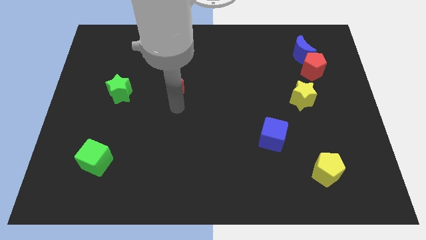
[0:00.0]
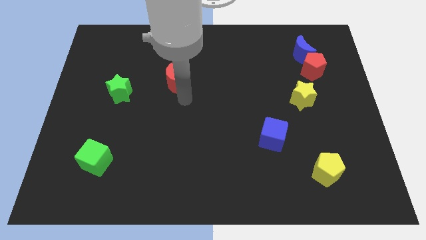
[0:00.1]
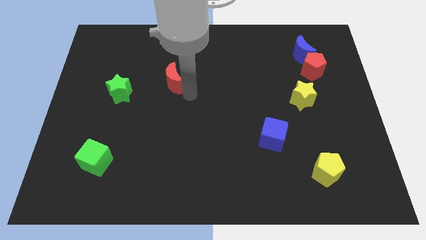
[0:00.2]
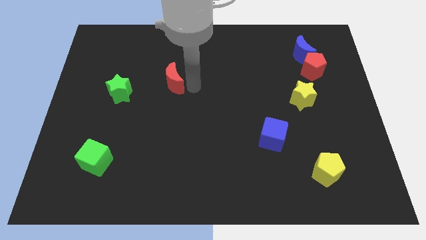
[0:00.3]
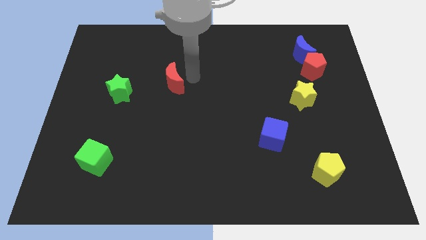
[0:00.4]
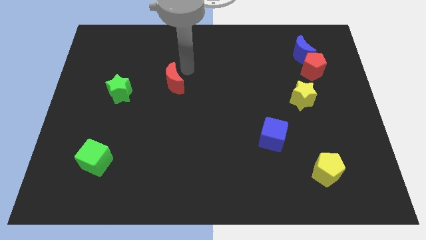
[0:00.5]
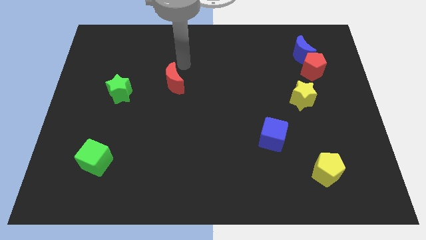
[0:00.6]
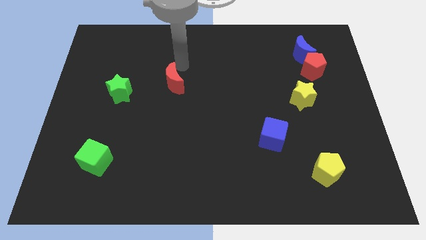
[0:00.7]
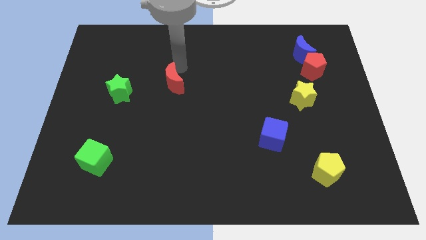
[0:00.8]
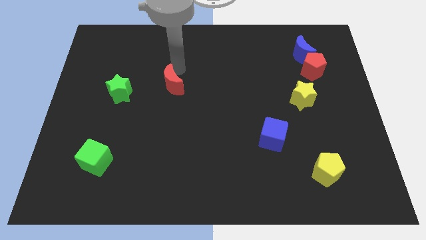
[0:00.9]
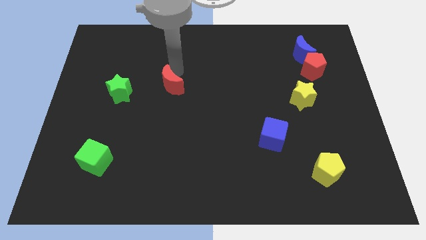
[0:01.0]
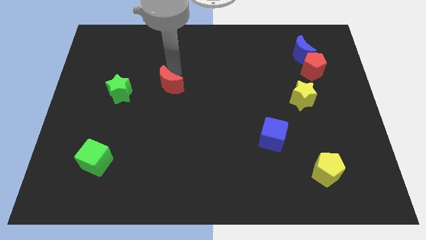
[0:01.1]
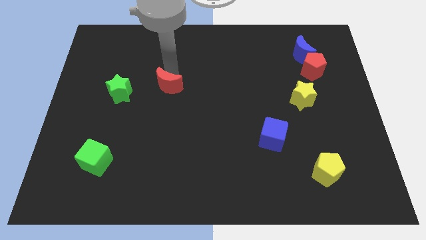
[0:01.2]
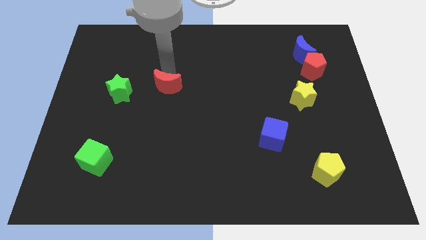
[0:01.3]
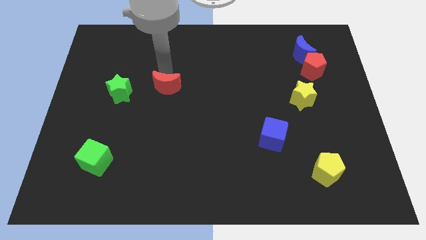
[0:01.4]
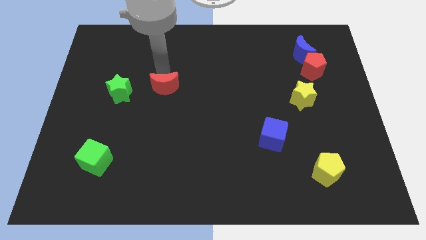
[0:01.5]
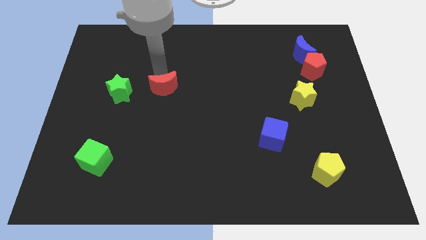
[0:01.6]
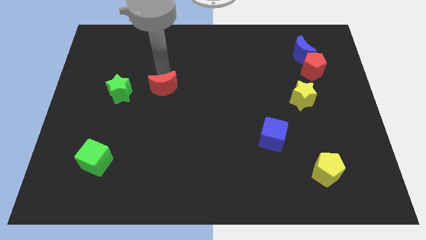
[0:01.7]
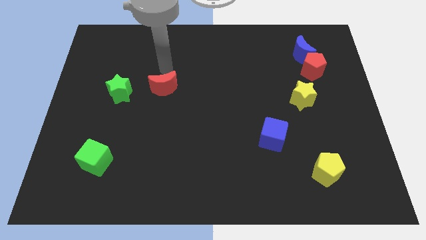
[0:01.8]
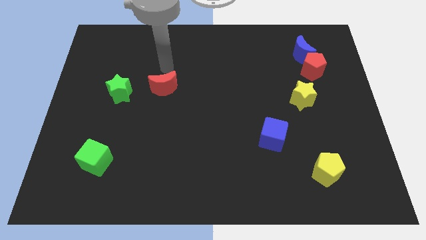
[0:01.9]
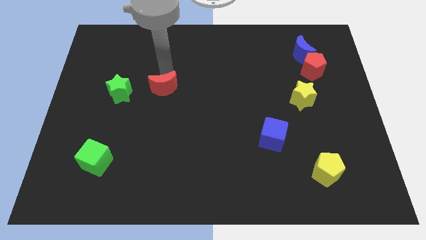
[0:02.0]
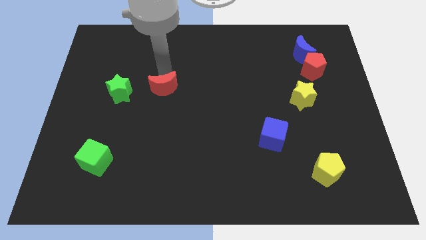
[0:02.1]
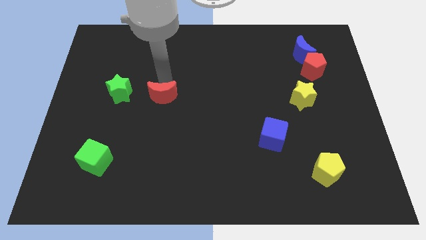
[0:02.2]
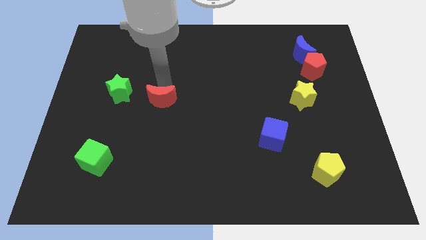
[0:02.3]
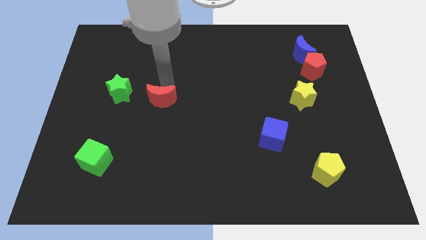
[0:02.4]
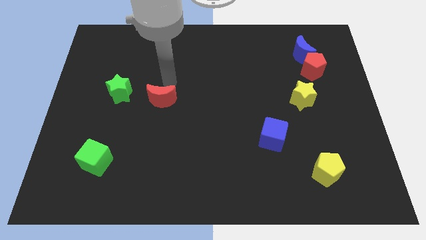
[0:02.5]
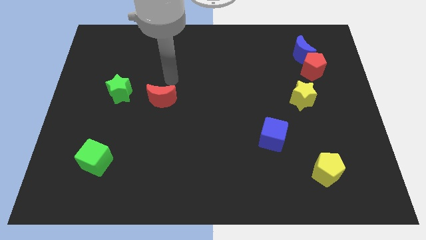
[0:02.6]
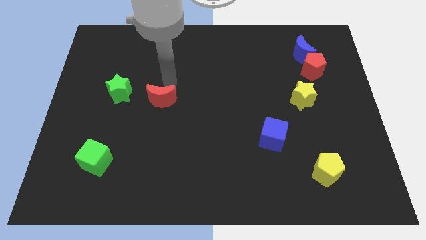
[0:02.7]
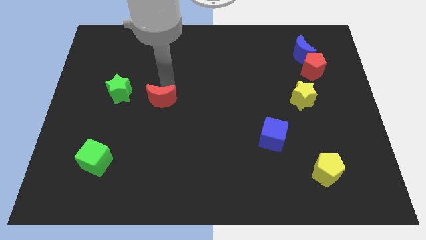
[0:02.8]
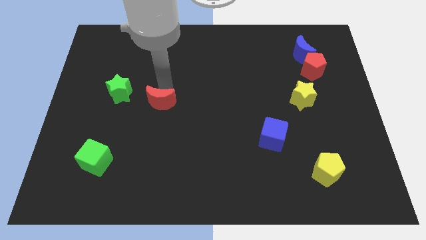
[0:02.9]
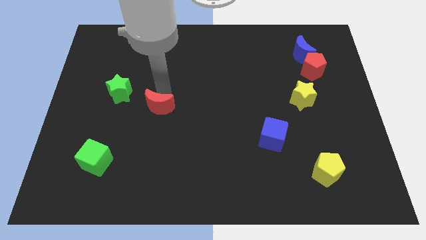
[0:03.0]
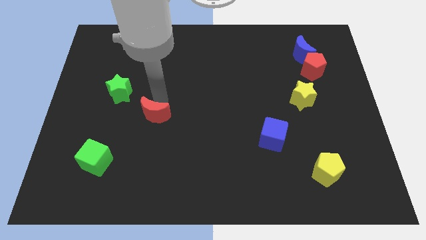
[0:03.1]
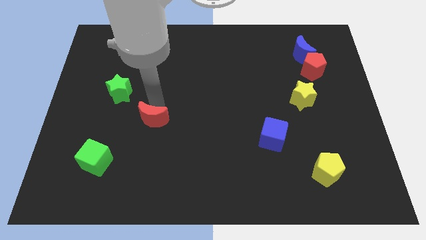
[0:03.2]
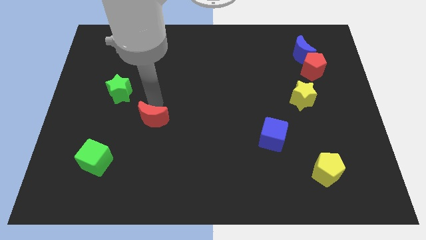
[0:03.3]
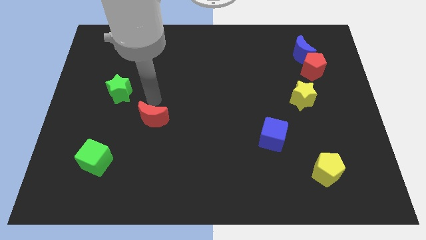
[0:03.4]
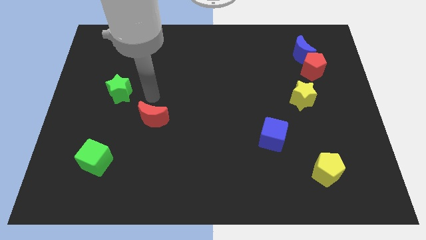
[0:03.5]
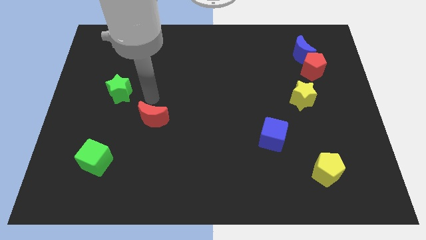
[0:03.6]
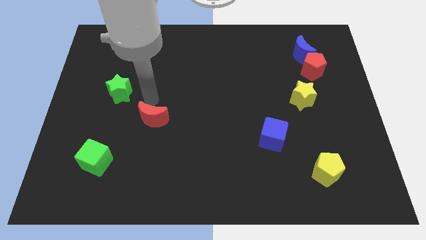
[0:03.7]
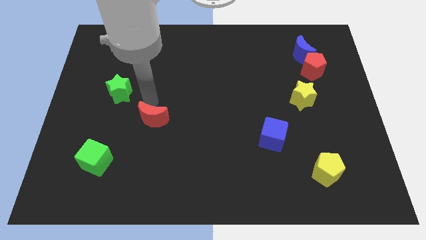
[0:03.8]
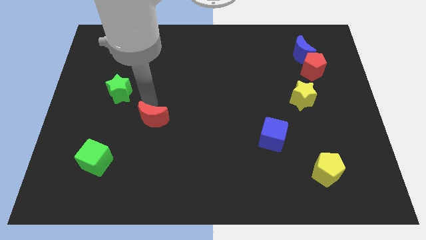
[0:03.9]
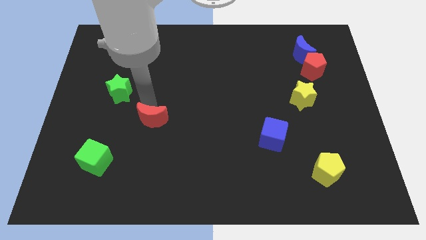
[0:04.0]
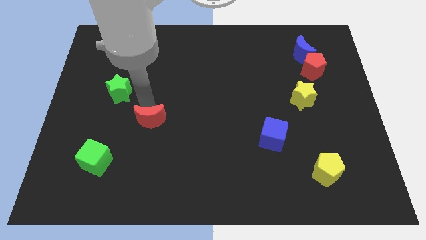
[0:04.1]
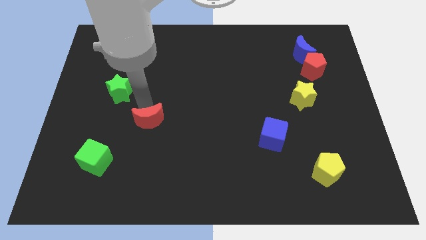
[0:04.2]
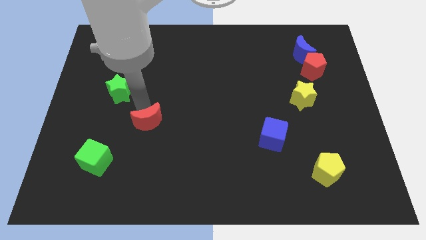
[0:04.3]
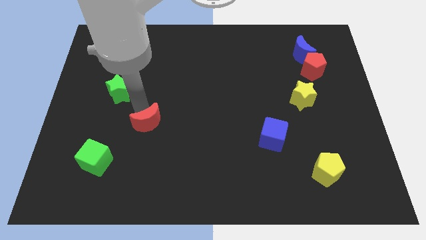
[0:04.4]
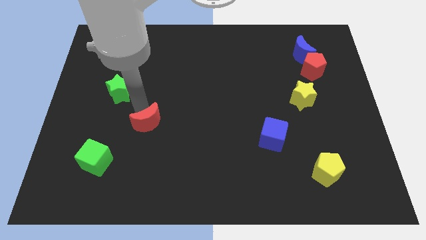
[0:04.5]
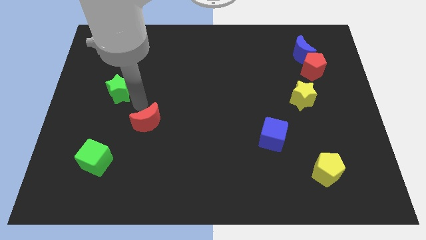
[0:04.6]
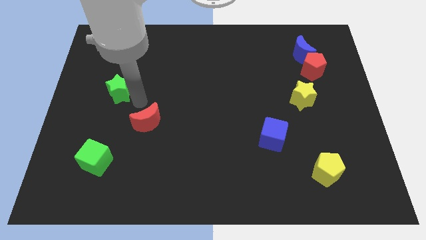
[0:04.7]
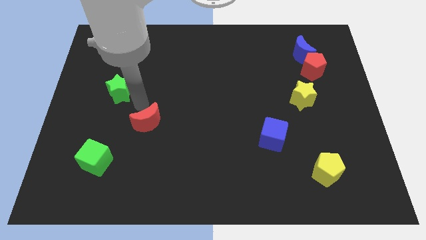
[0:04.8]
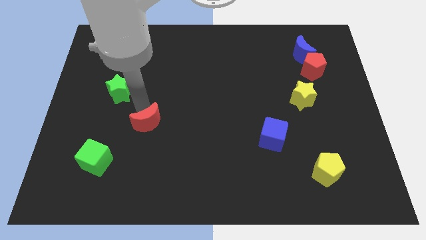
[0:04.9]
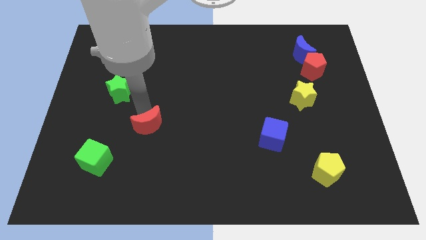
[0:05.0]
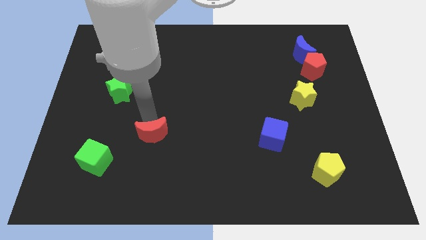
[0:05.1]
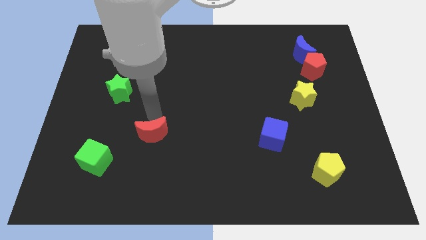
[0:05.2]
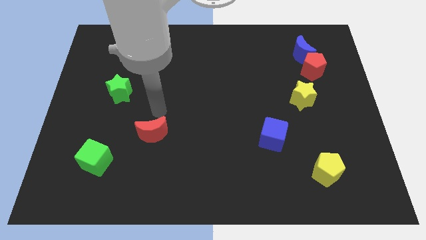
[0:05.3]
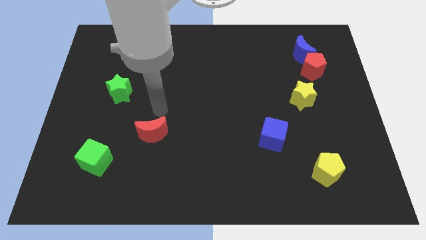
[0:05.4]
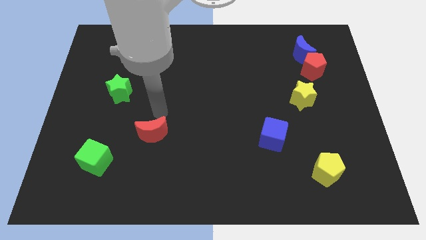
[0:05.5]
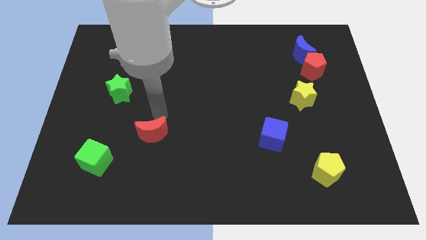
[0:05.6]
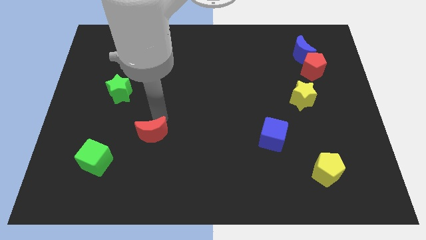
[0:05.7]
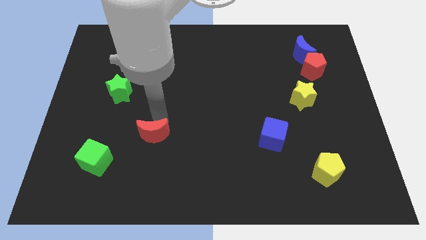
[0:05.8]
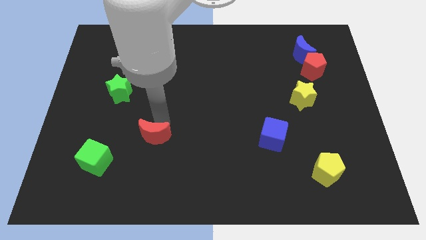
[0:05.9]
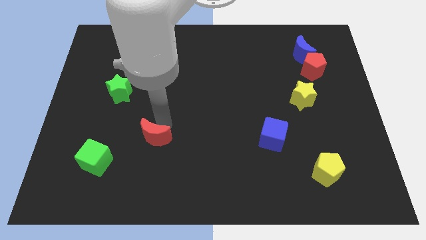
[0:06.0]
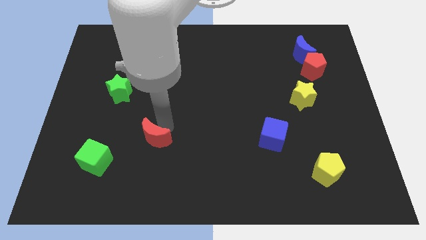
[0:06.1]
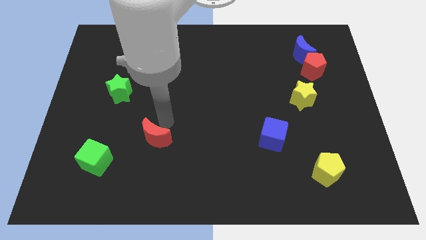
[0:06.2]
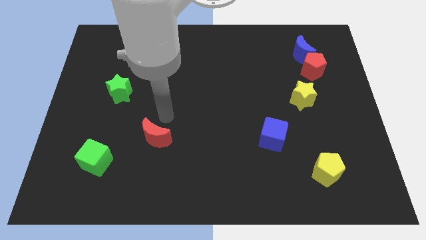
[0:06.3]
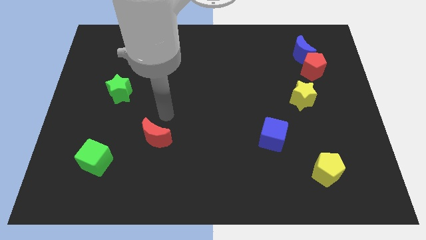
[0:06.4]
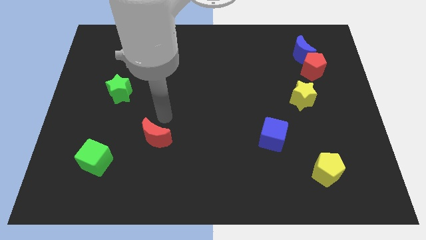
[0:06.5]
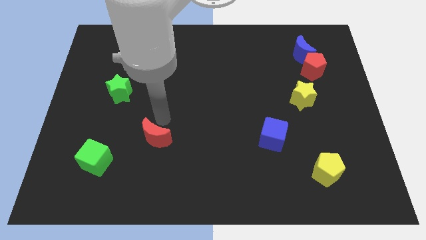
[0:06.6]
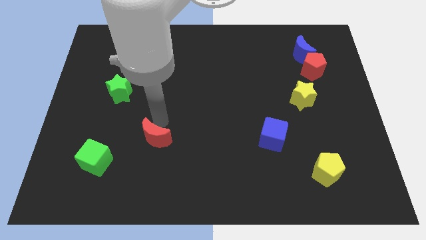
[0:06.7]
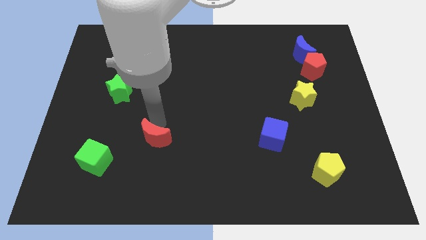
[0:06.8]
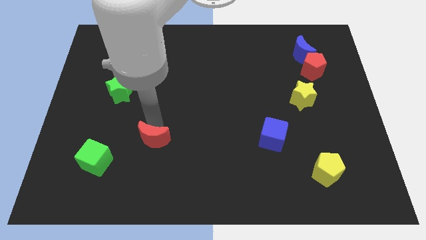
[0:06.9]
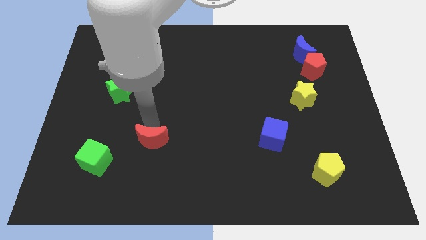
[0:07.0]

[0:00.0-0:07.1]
push the red moon right of the green cube
